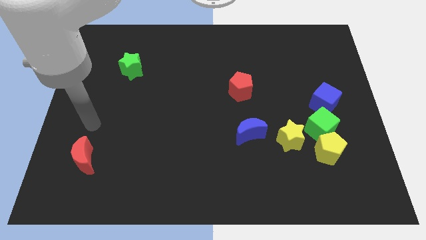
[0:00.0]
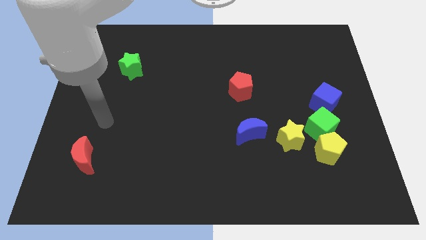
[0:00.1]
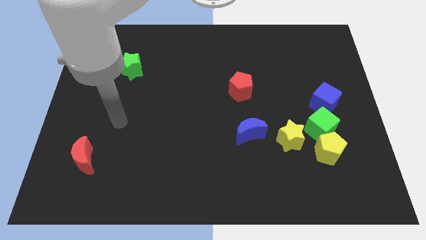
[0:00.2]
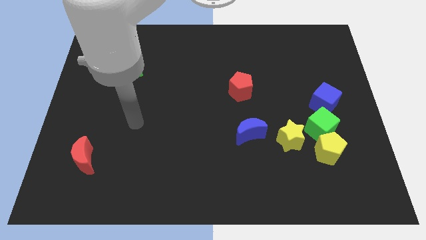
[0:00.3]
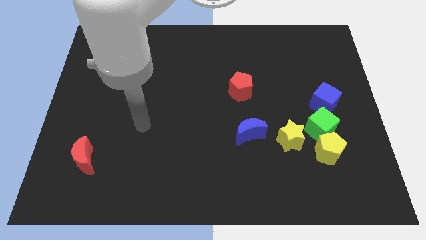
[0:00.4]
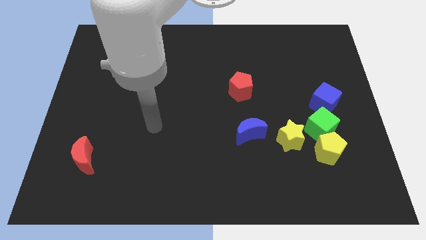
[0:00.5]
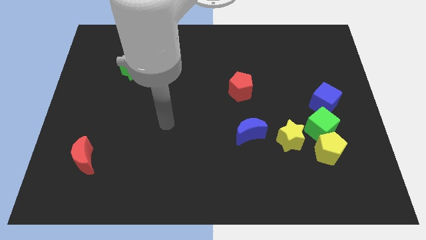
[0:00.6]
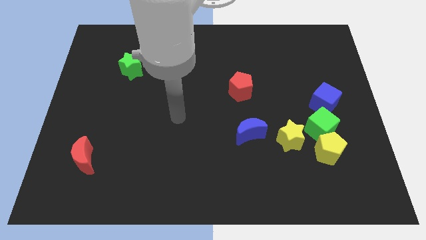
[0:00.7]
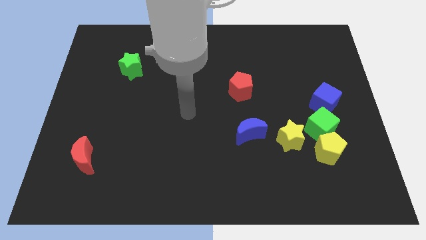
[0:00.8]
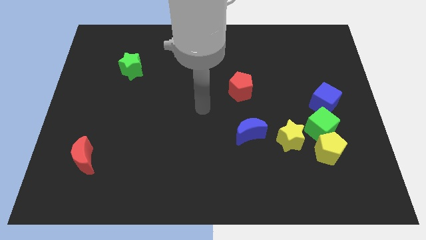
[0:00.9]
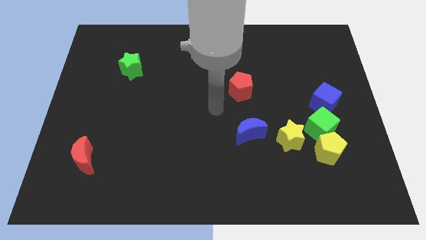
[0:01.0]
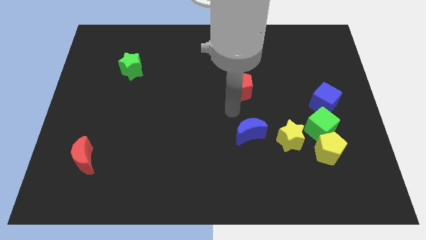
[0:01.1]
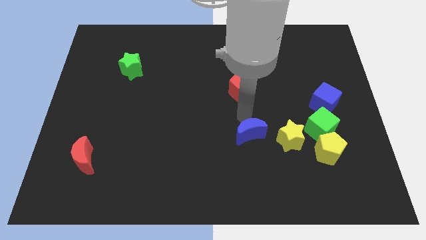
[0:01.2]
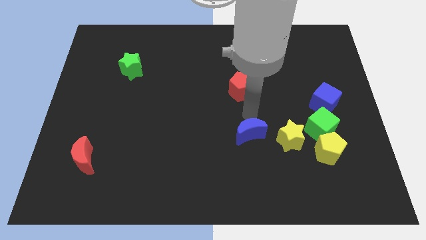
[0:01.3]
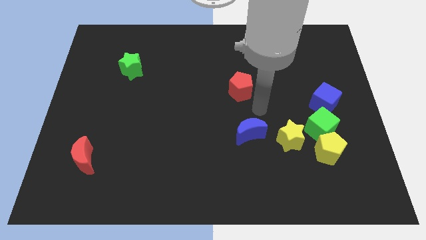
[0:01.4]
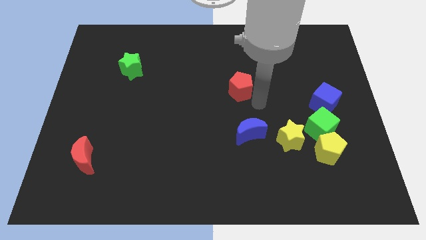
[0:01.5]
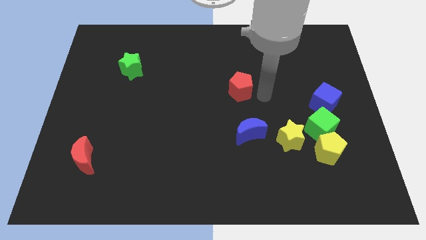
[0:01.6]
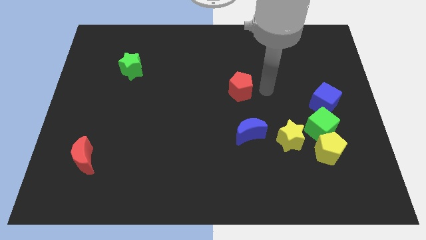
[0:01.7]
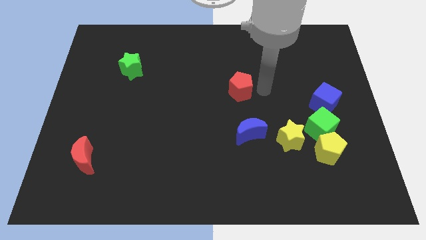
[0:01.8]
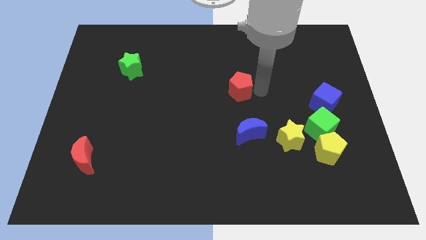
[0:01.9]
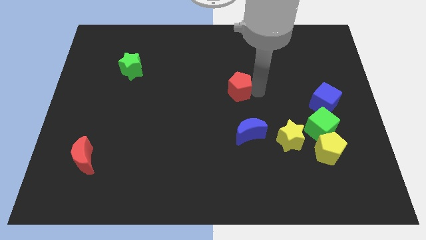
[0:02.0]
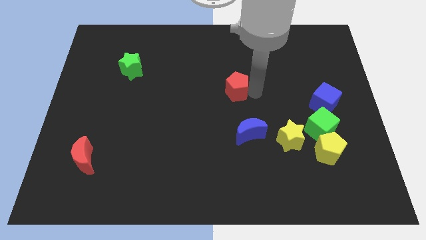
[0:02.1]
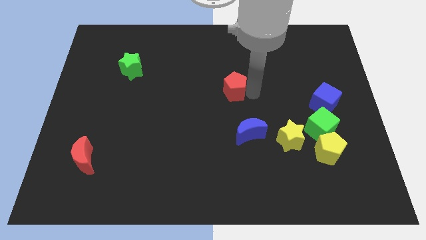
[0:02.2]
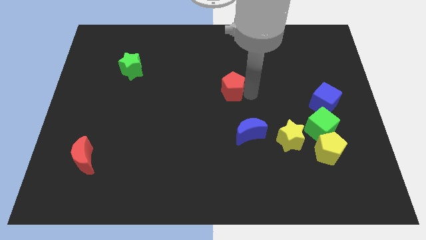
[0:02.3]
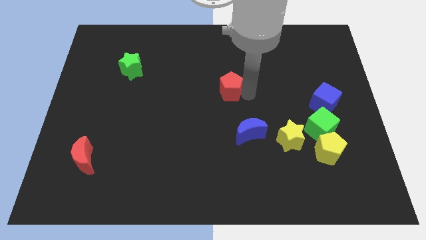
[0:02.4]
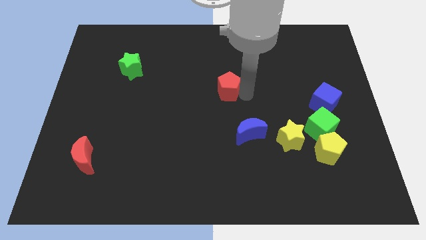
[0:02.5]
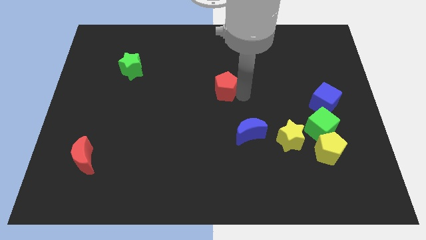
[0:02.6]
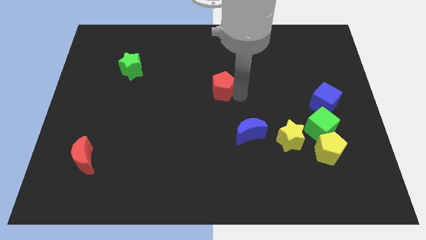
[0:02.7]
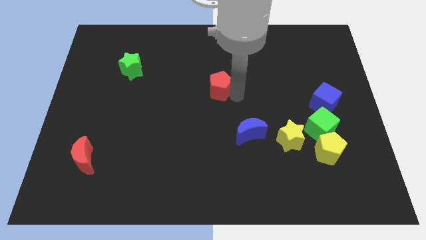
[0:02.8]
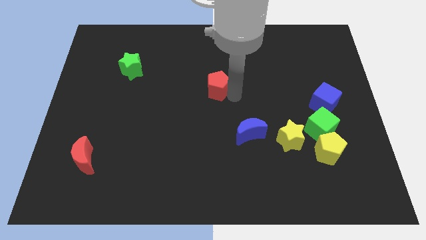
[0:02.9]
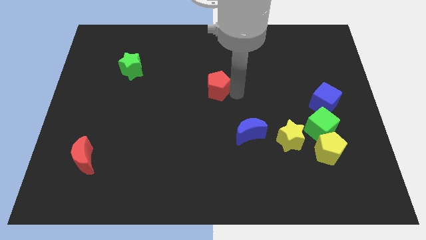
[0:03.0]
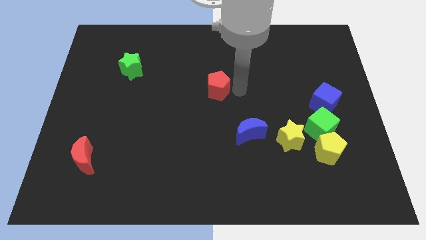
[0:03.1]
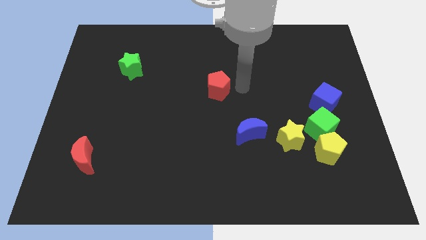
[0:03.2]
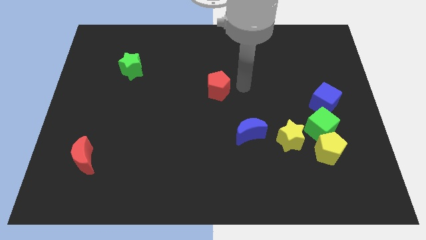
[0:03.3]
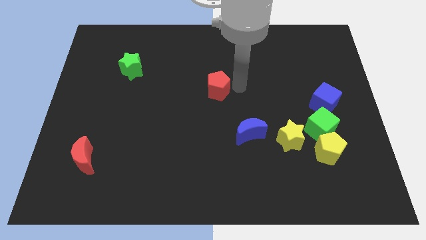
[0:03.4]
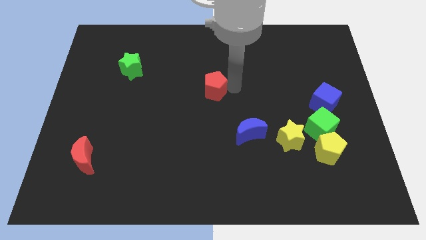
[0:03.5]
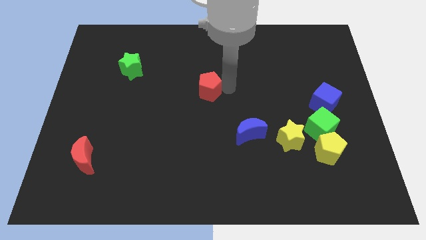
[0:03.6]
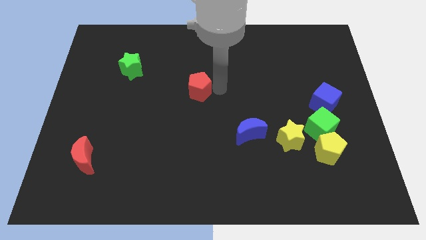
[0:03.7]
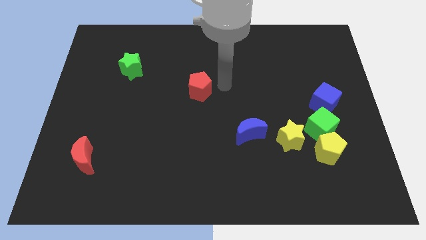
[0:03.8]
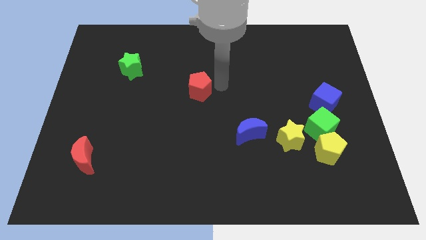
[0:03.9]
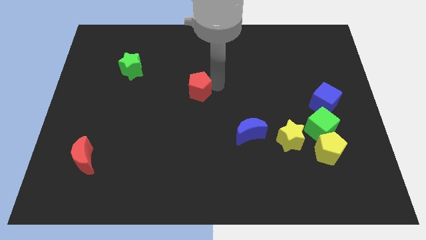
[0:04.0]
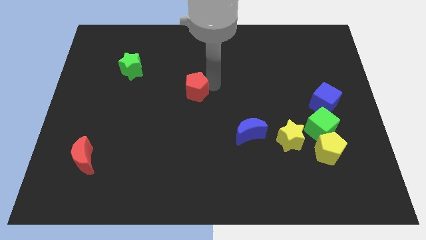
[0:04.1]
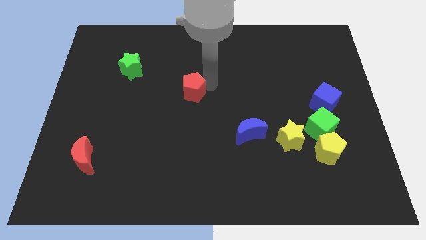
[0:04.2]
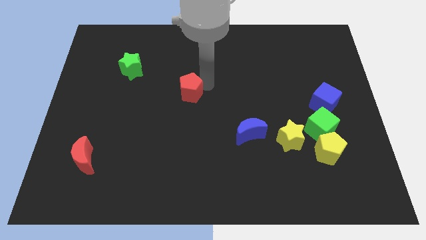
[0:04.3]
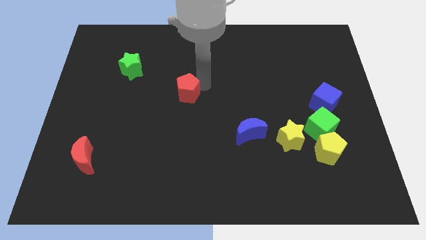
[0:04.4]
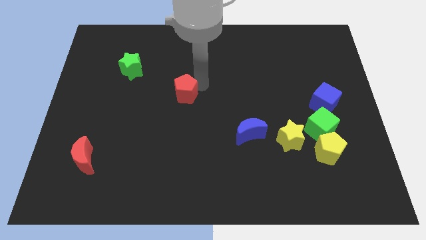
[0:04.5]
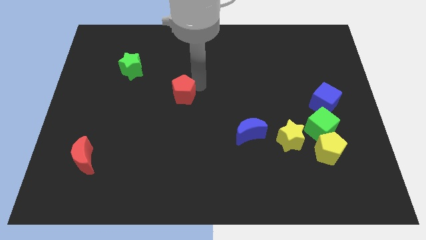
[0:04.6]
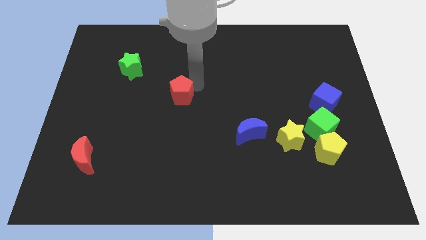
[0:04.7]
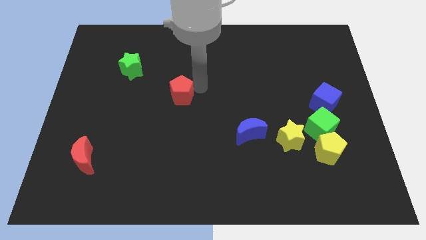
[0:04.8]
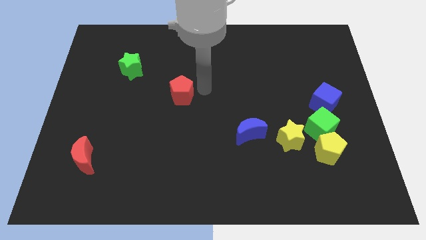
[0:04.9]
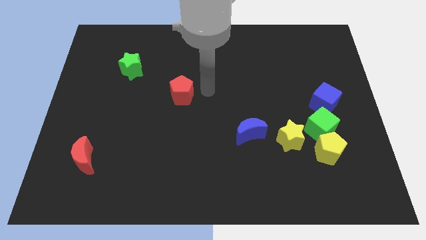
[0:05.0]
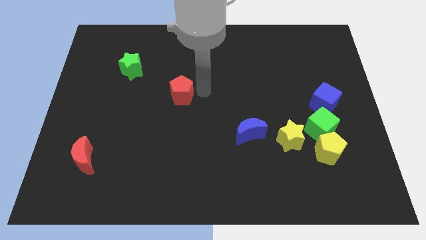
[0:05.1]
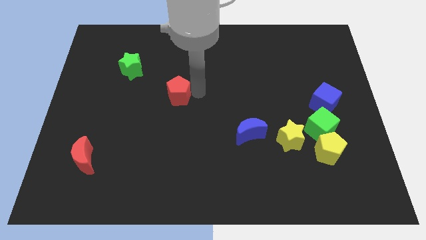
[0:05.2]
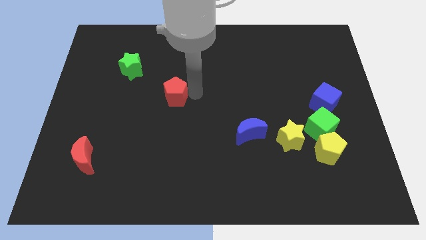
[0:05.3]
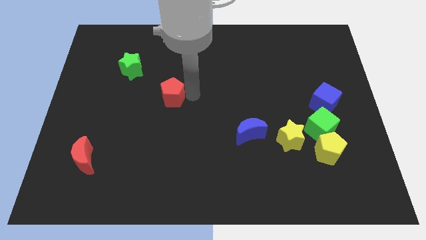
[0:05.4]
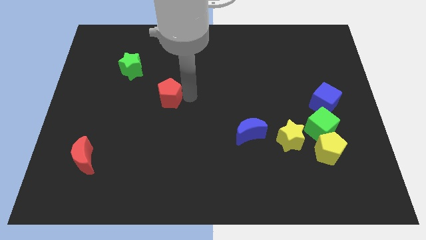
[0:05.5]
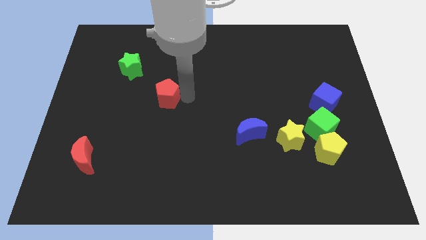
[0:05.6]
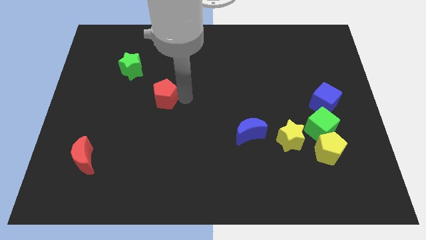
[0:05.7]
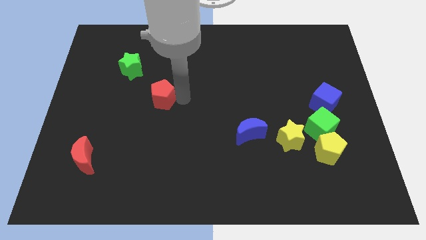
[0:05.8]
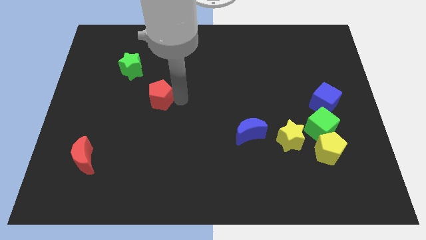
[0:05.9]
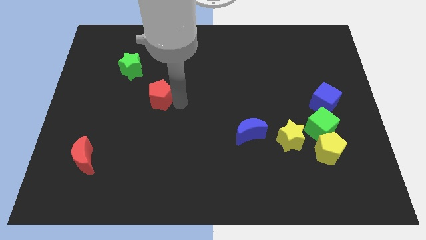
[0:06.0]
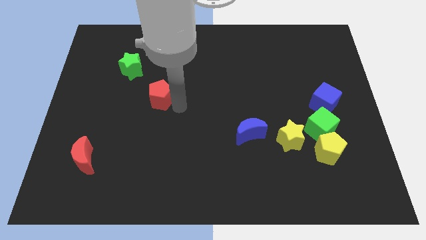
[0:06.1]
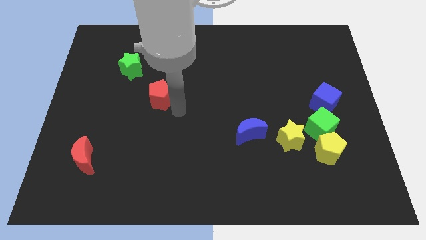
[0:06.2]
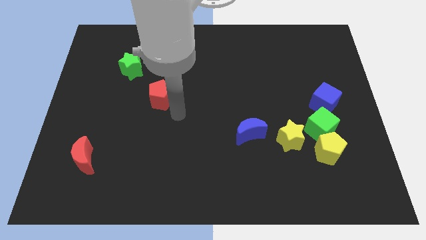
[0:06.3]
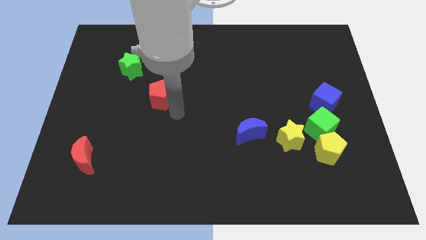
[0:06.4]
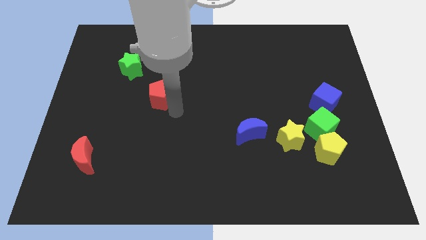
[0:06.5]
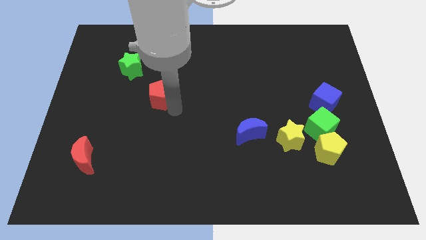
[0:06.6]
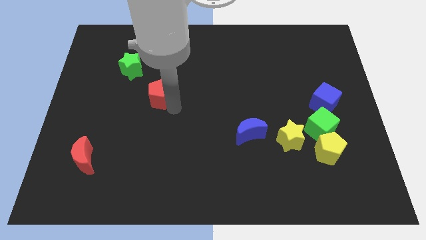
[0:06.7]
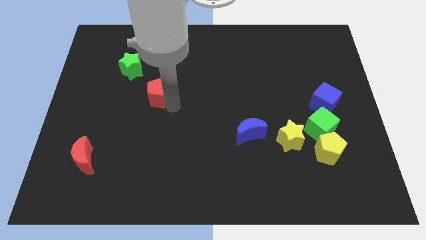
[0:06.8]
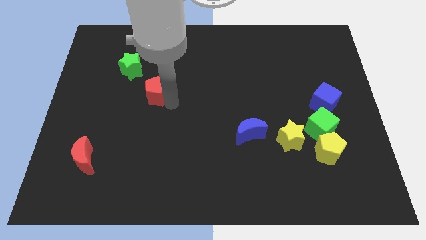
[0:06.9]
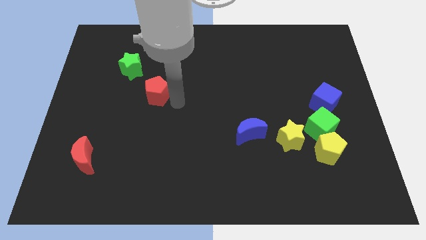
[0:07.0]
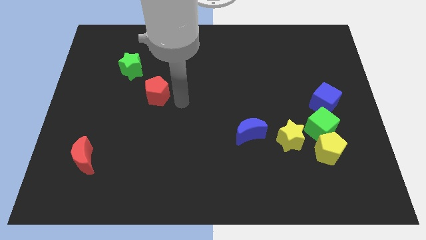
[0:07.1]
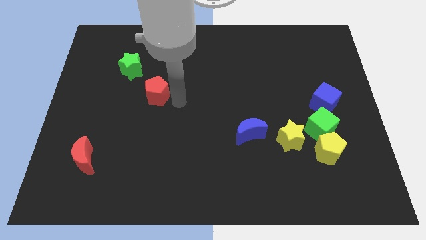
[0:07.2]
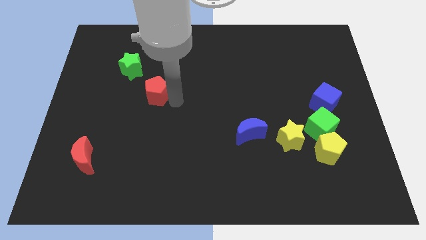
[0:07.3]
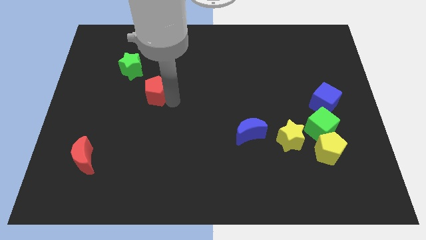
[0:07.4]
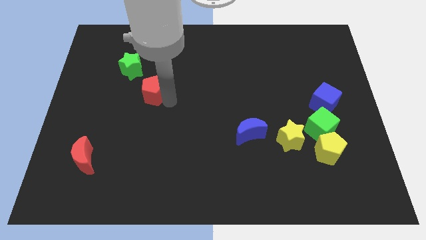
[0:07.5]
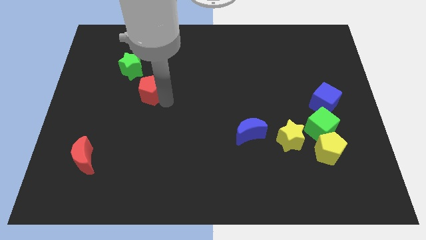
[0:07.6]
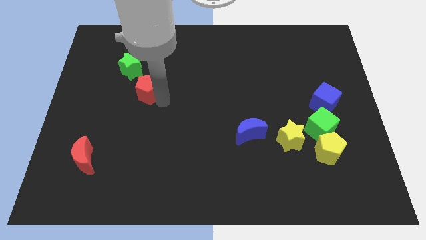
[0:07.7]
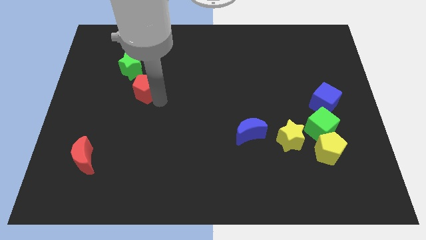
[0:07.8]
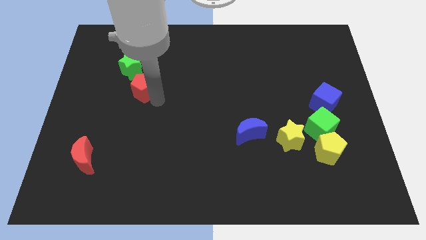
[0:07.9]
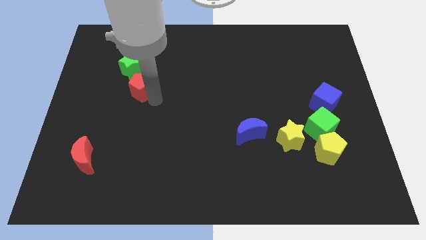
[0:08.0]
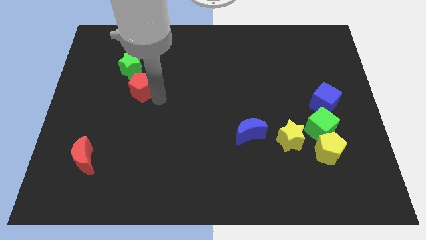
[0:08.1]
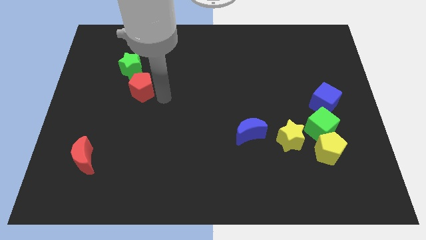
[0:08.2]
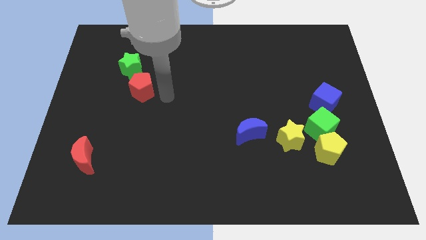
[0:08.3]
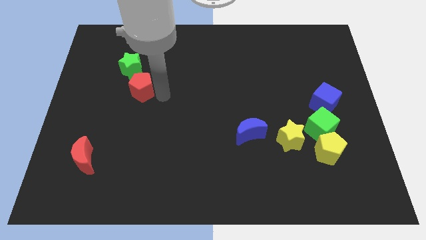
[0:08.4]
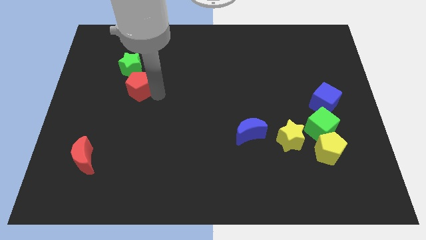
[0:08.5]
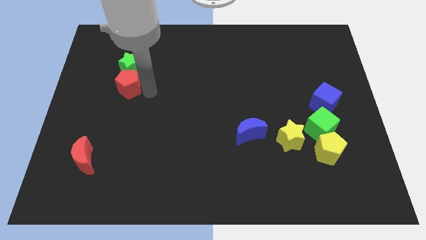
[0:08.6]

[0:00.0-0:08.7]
put the red pentagon to the bottom left of the green star
